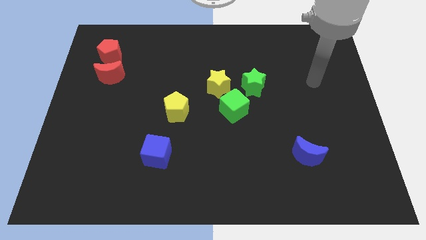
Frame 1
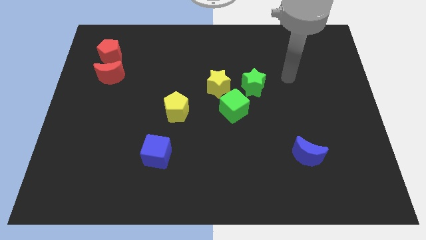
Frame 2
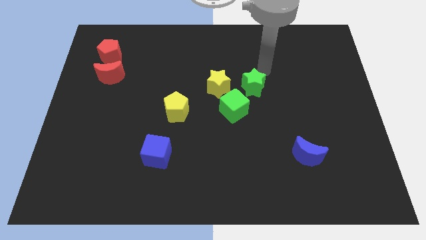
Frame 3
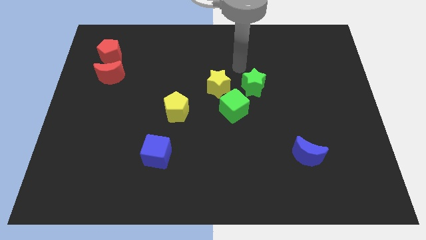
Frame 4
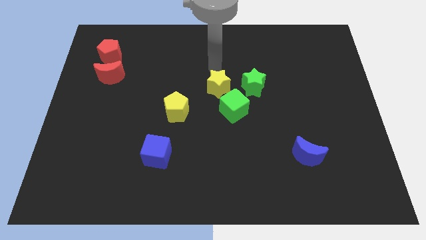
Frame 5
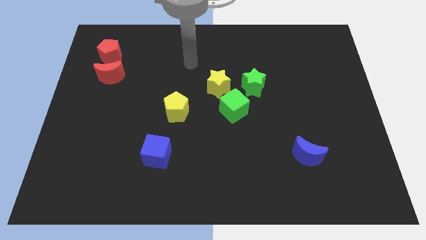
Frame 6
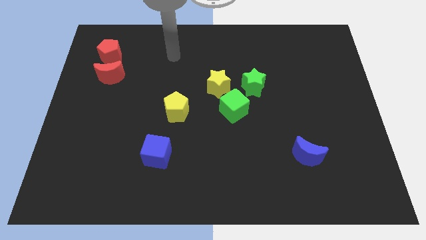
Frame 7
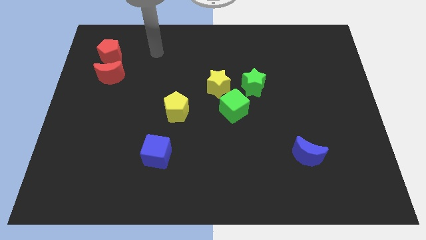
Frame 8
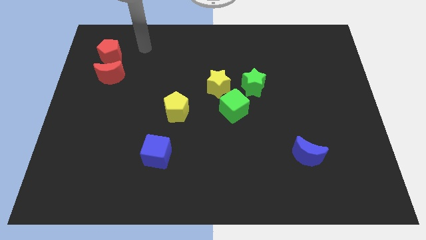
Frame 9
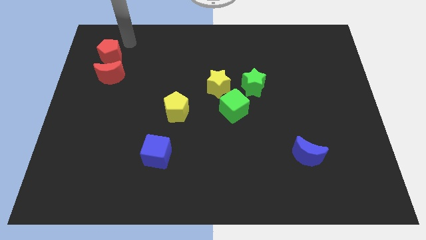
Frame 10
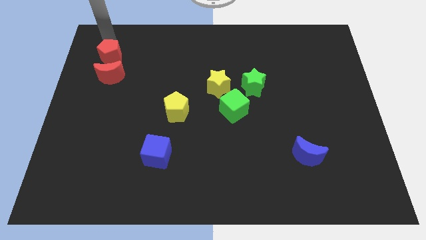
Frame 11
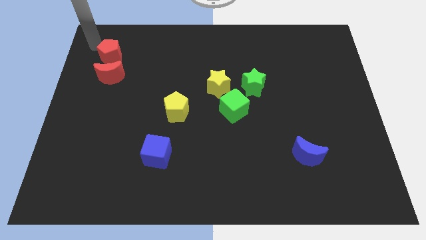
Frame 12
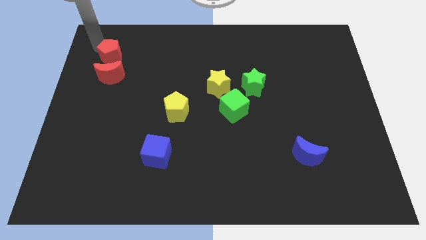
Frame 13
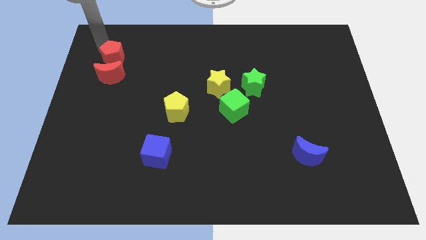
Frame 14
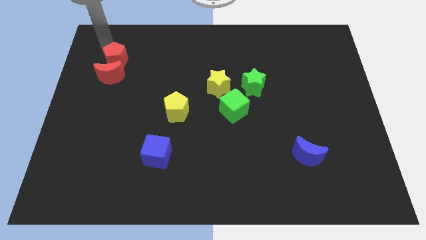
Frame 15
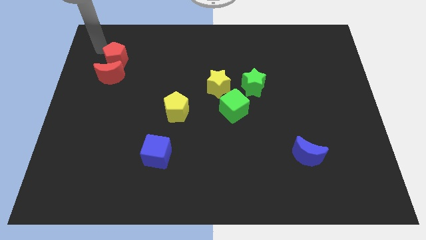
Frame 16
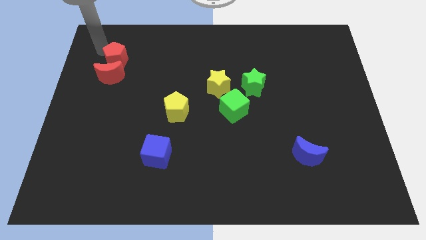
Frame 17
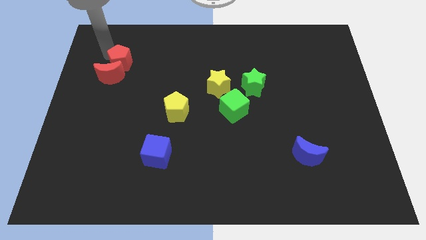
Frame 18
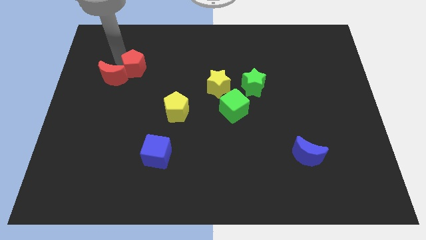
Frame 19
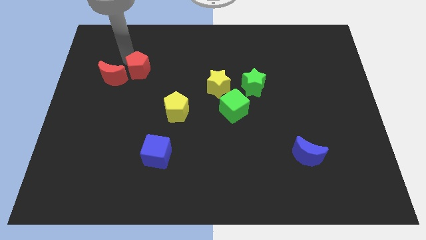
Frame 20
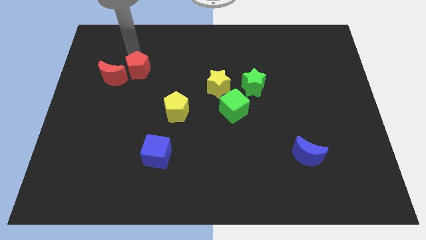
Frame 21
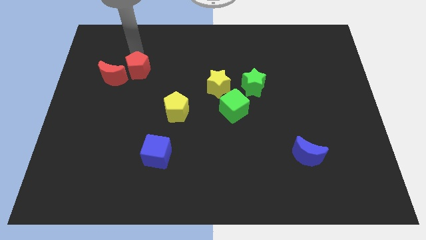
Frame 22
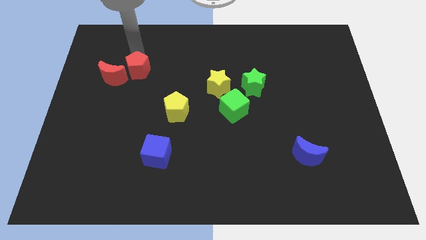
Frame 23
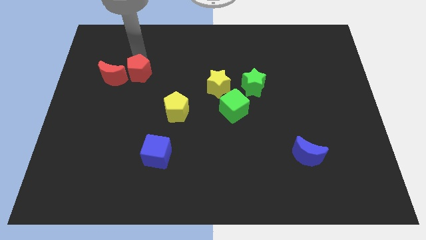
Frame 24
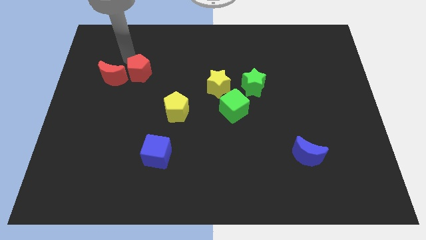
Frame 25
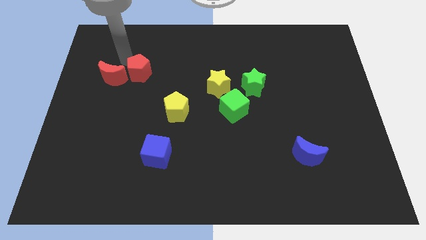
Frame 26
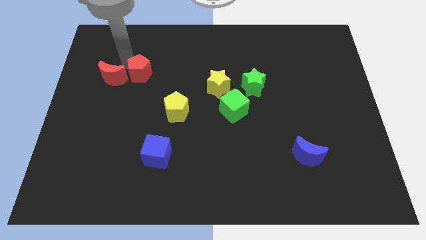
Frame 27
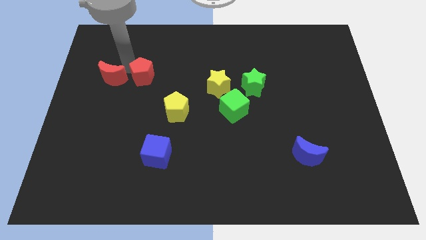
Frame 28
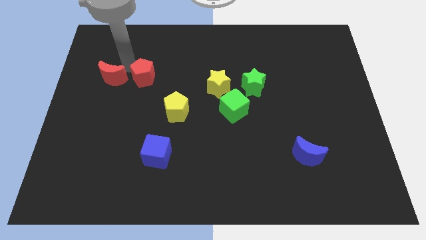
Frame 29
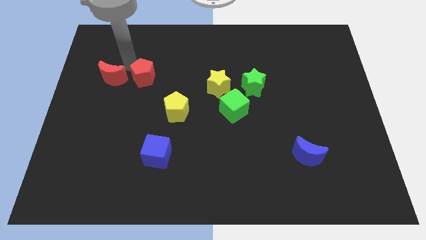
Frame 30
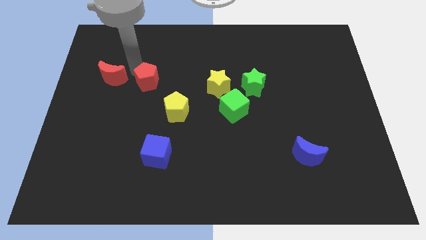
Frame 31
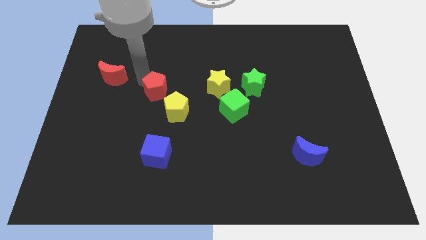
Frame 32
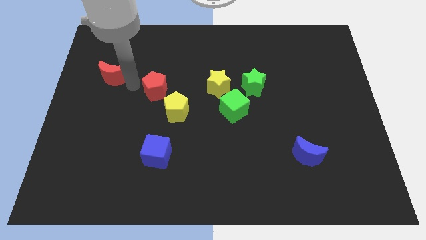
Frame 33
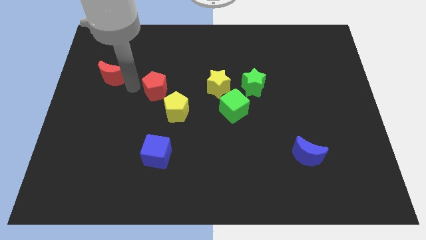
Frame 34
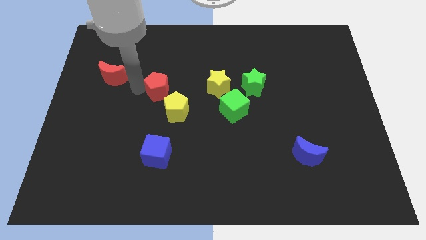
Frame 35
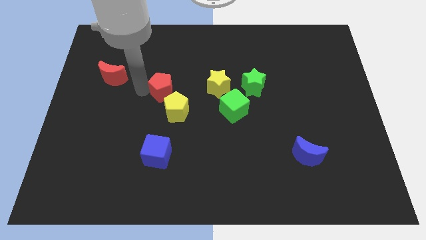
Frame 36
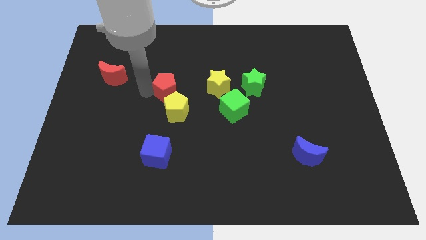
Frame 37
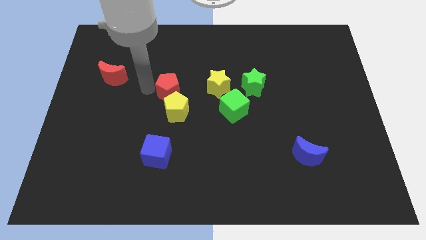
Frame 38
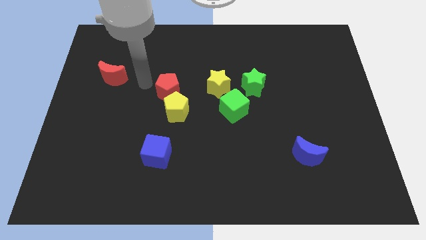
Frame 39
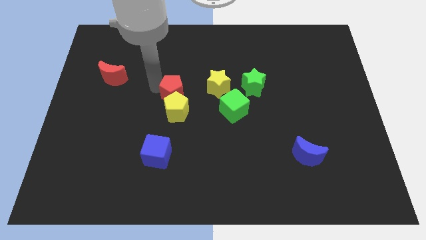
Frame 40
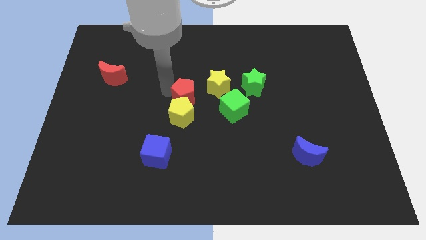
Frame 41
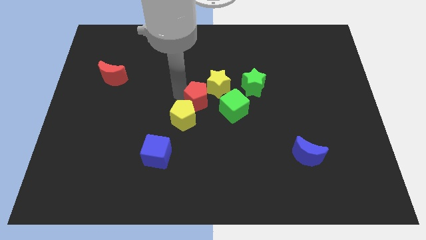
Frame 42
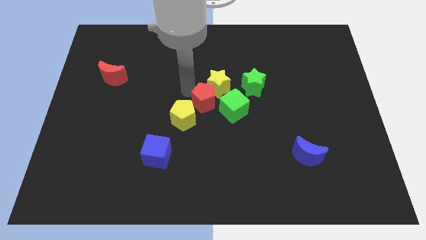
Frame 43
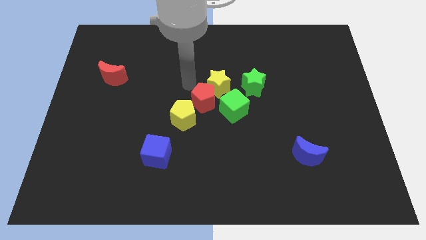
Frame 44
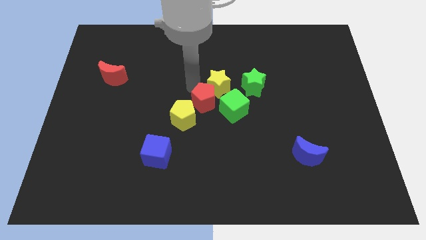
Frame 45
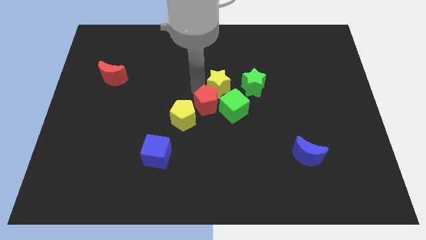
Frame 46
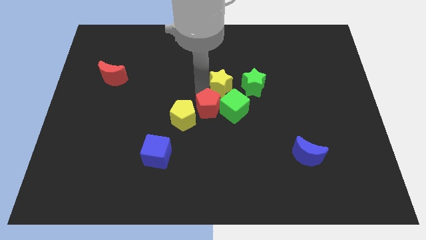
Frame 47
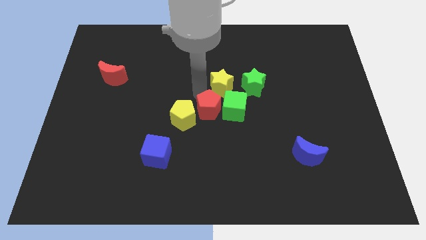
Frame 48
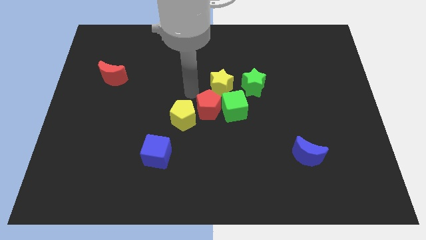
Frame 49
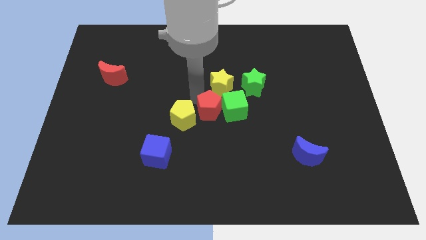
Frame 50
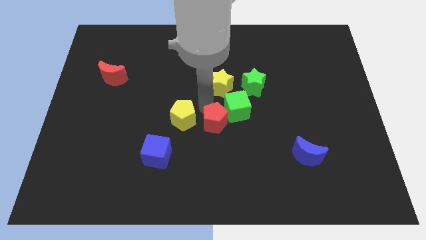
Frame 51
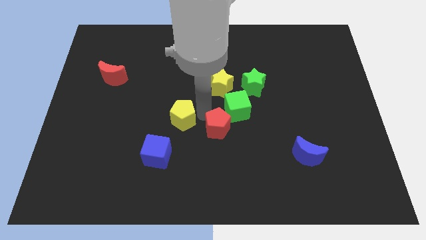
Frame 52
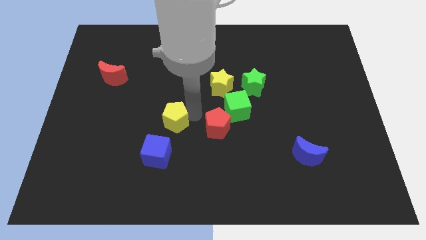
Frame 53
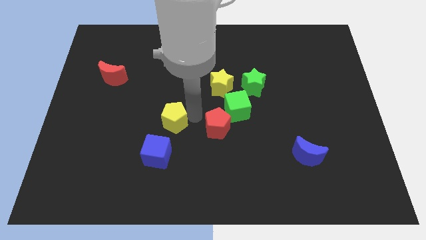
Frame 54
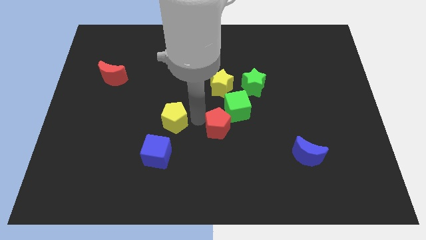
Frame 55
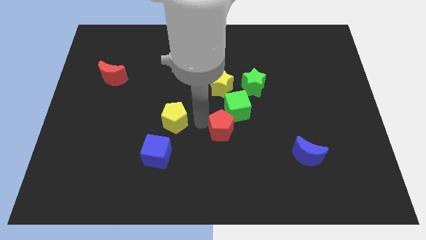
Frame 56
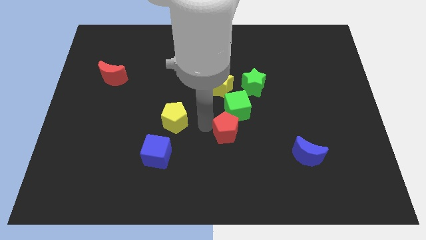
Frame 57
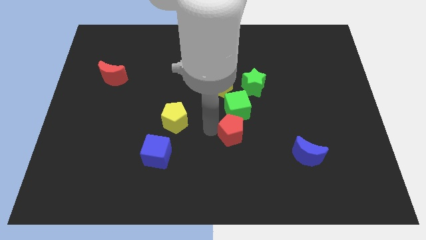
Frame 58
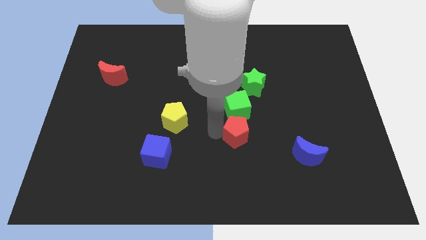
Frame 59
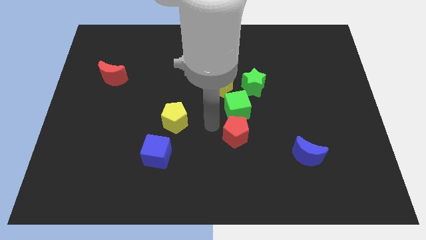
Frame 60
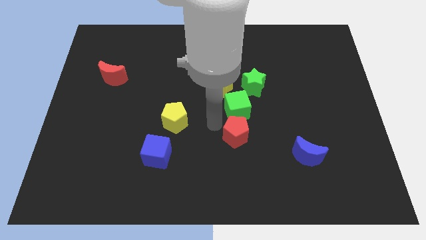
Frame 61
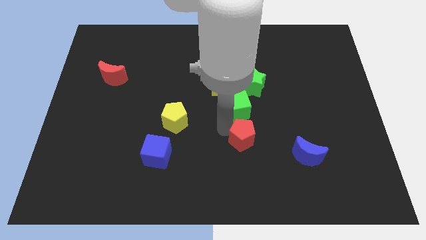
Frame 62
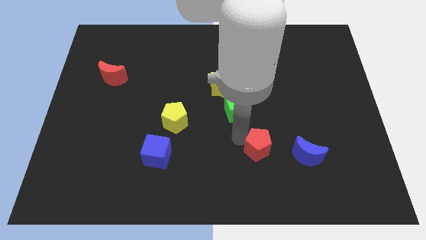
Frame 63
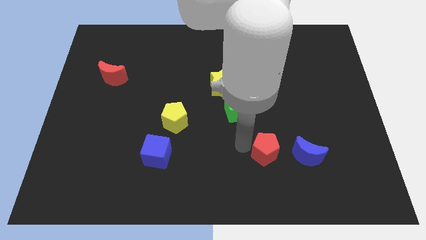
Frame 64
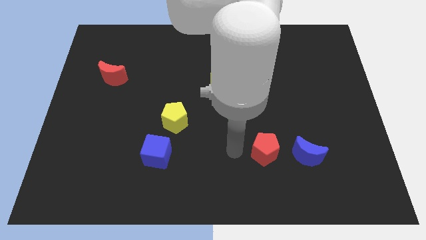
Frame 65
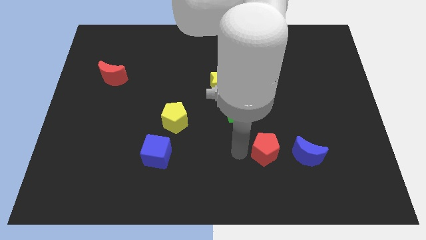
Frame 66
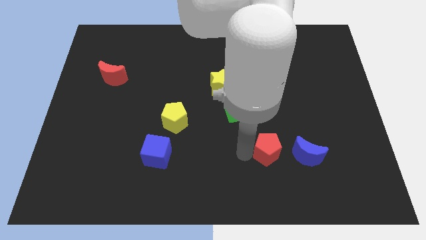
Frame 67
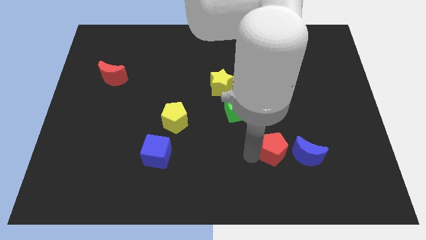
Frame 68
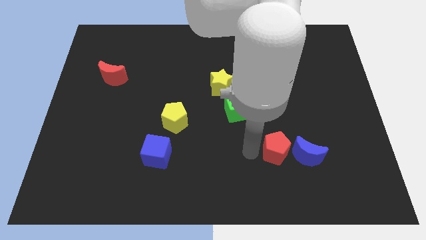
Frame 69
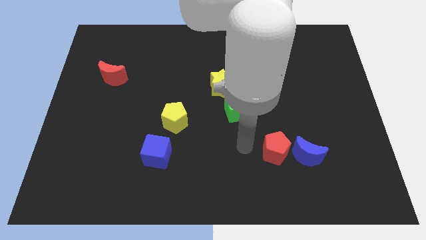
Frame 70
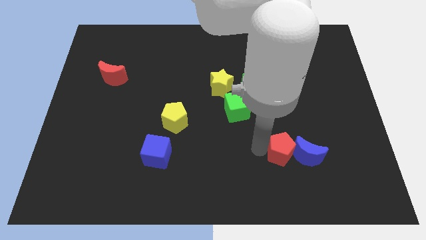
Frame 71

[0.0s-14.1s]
slide the red pentagon next to the blue moon
